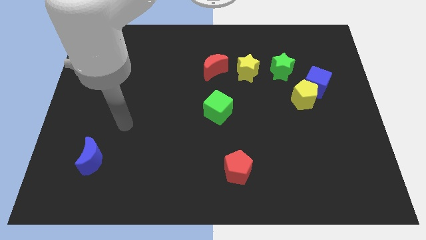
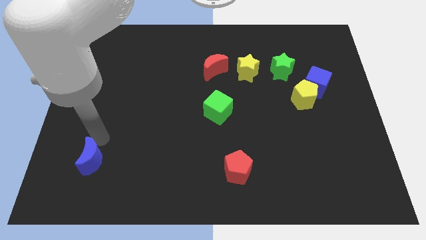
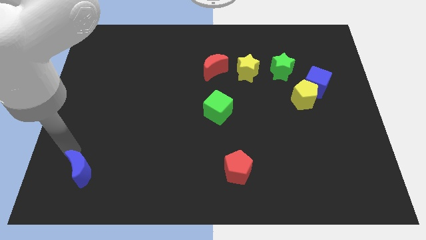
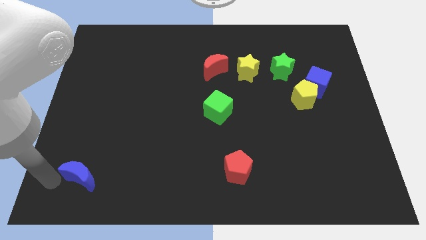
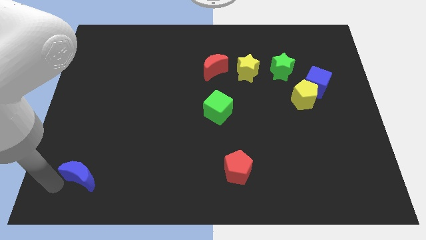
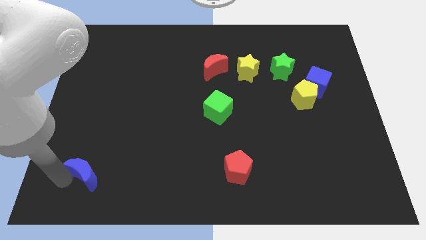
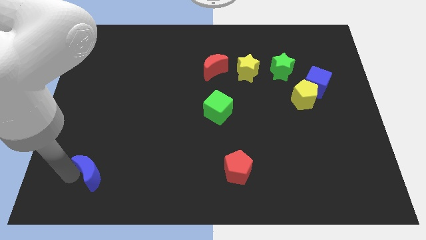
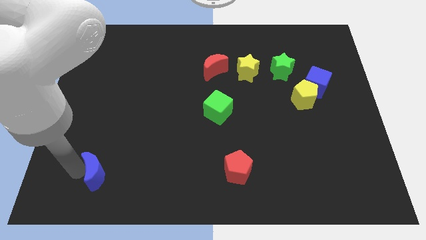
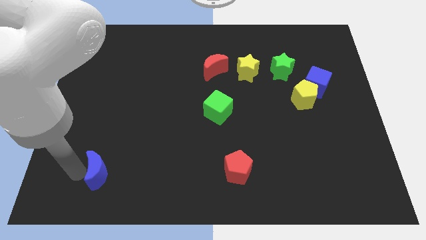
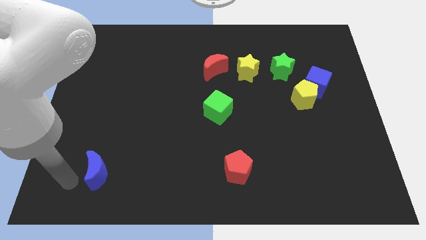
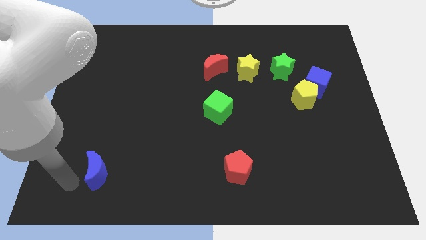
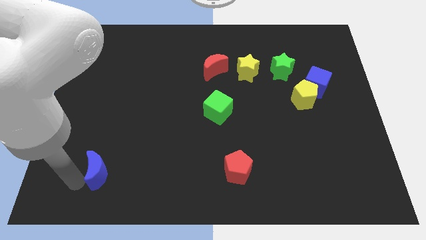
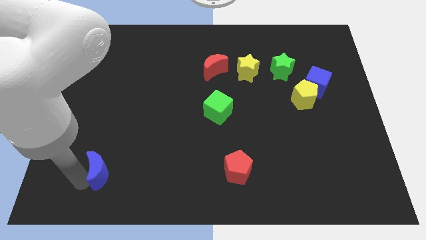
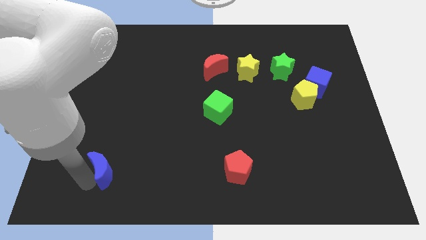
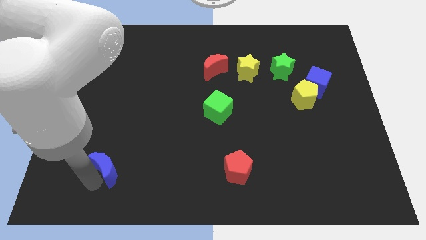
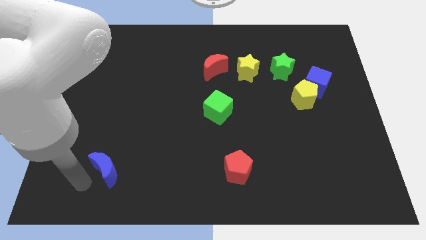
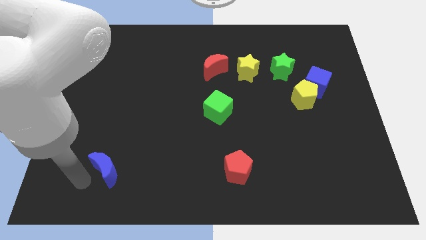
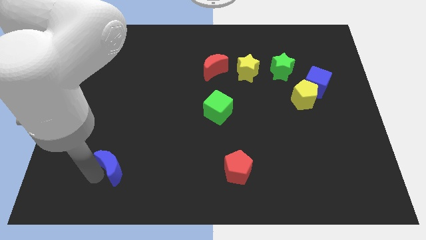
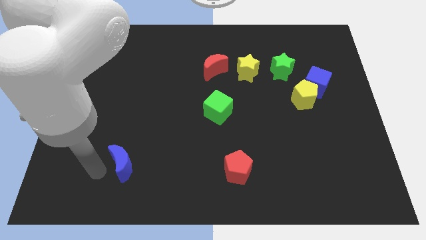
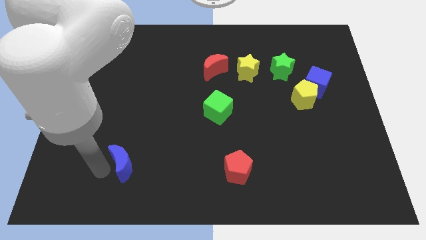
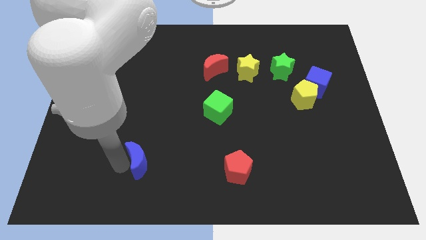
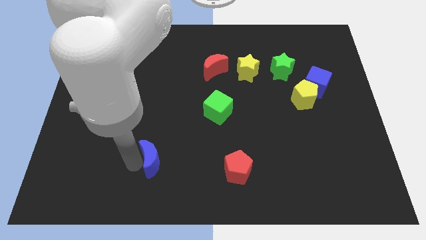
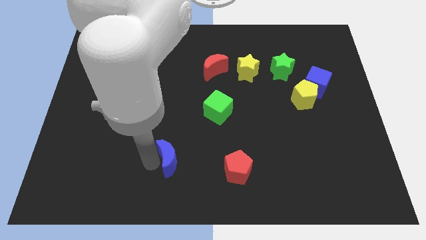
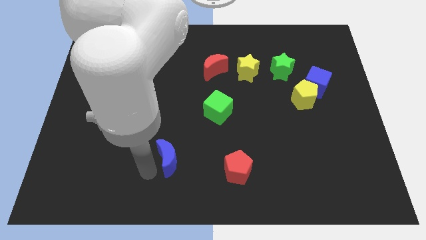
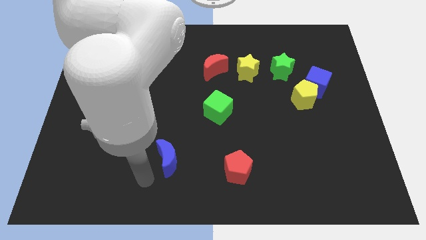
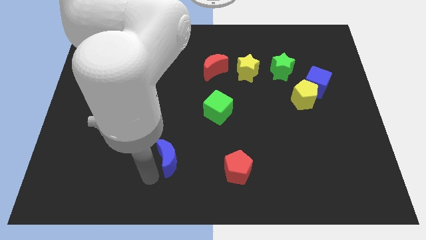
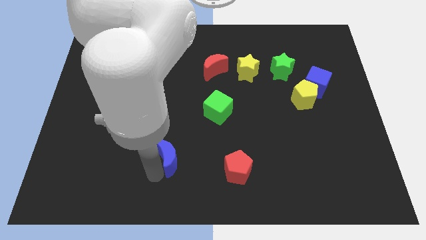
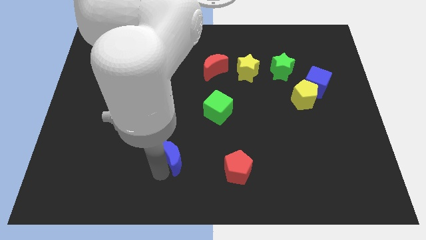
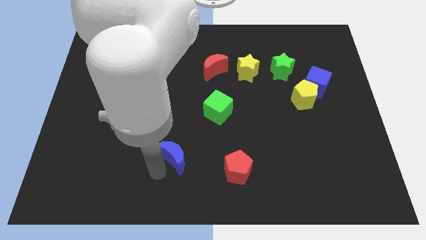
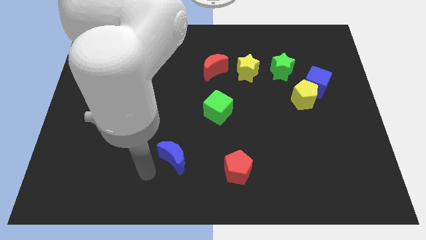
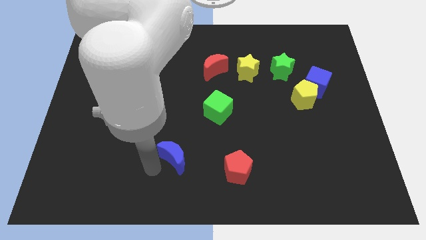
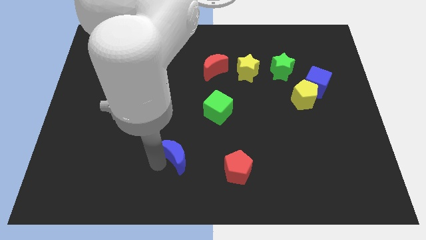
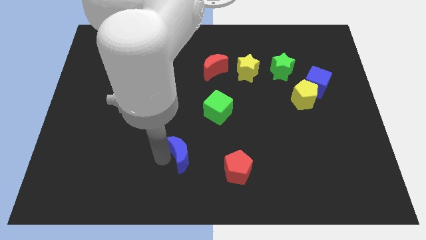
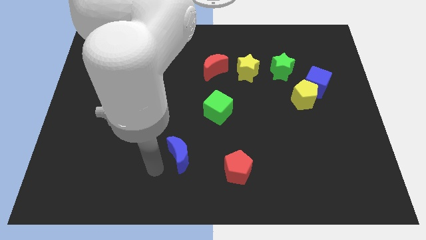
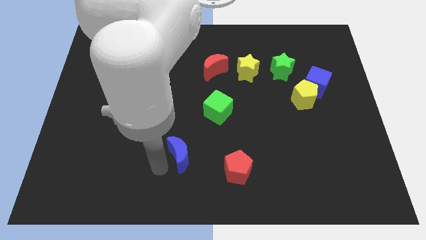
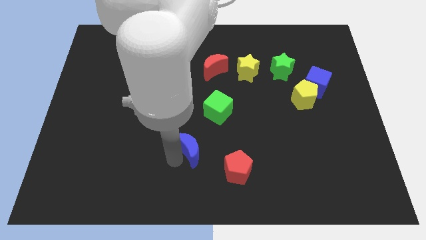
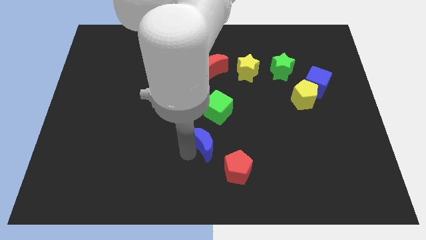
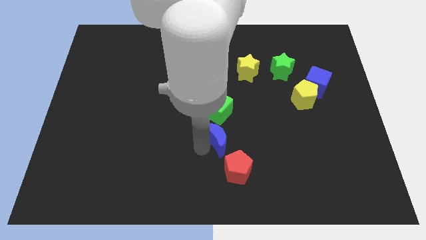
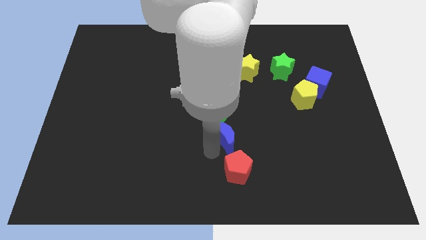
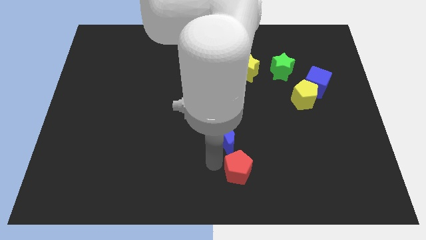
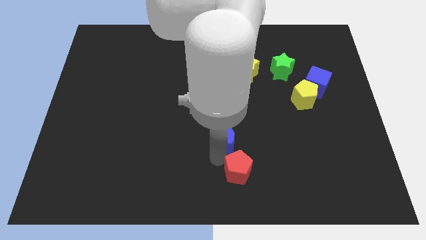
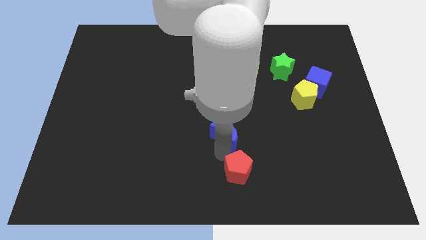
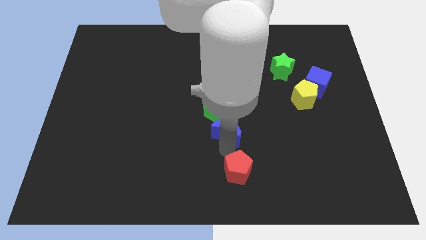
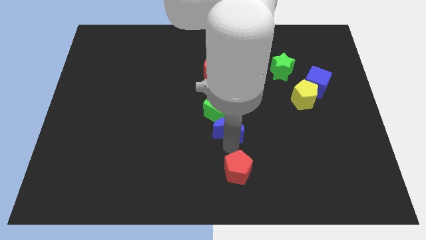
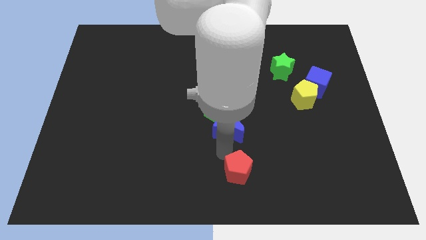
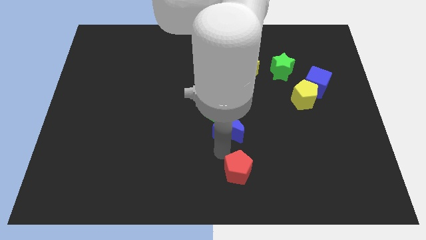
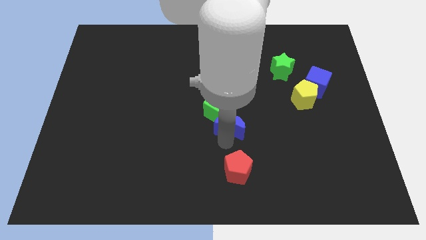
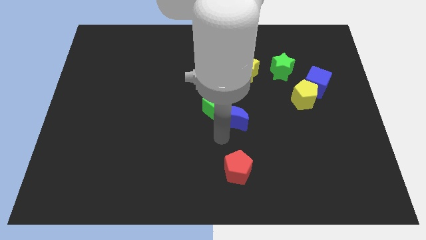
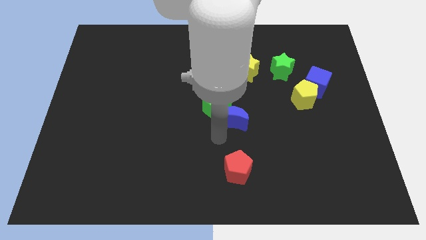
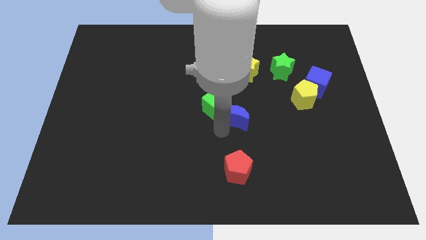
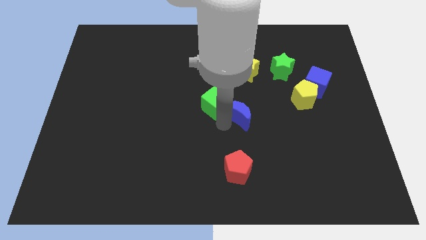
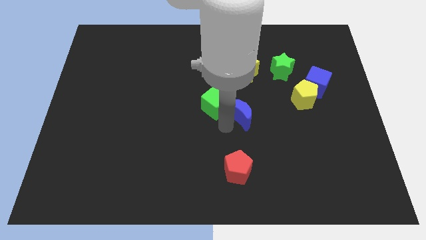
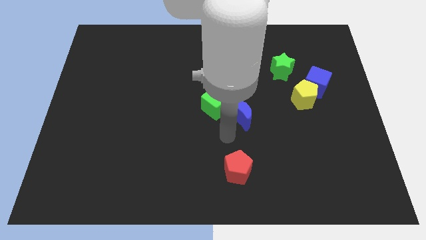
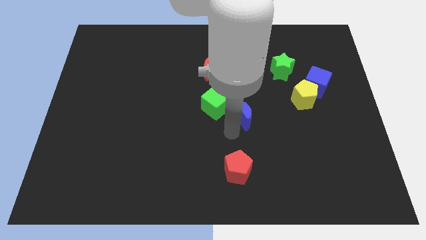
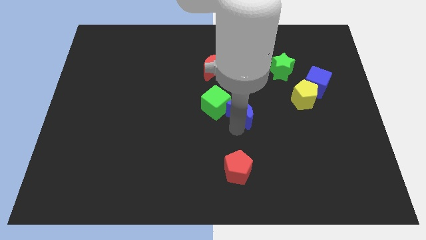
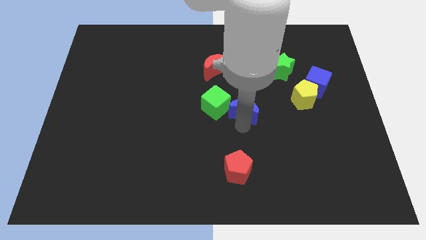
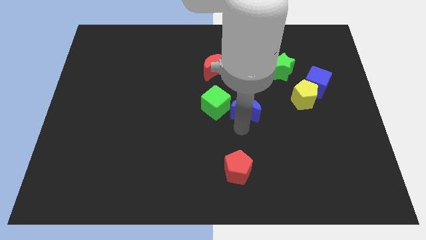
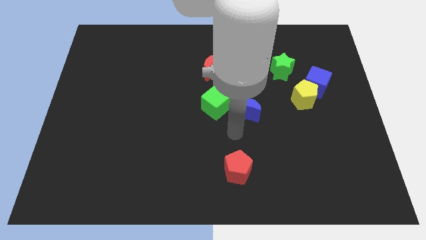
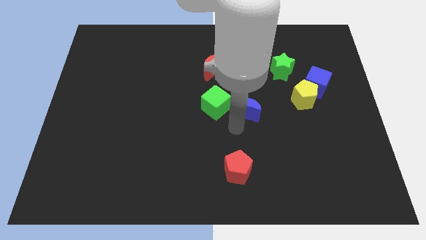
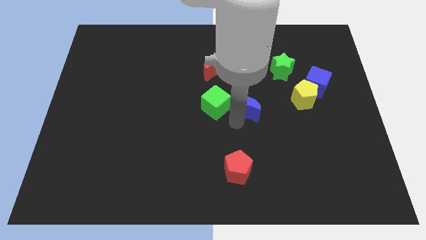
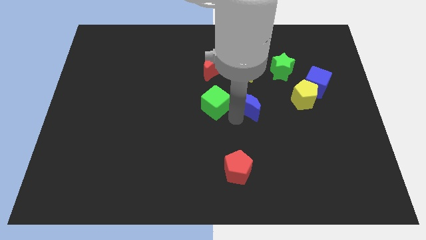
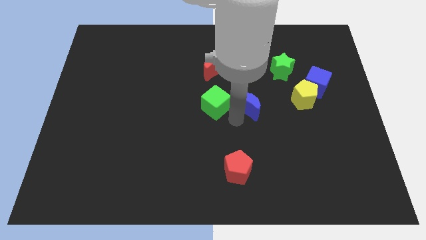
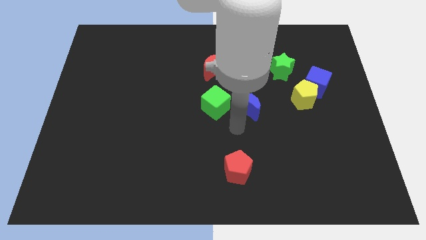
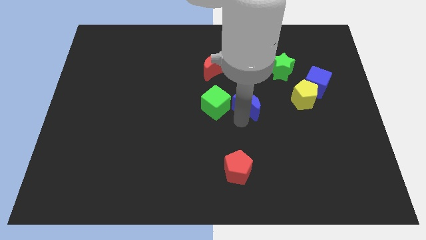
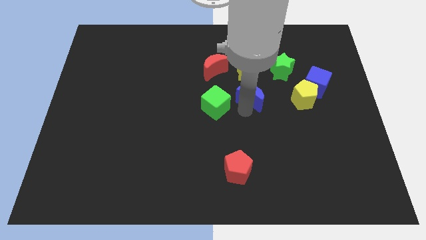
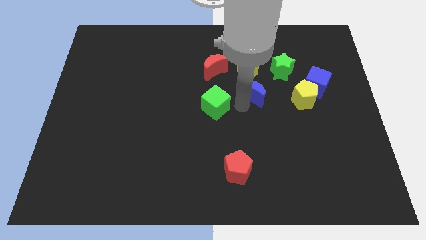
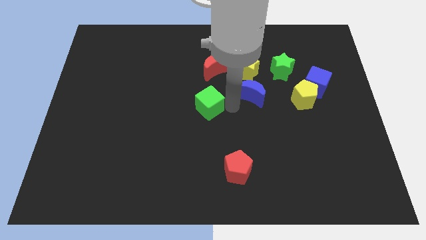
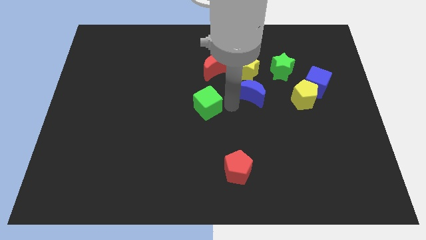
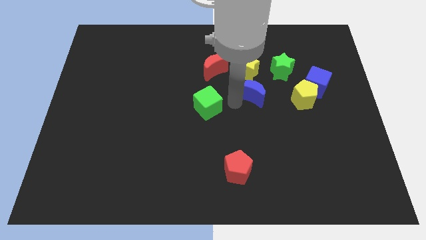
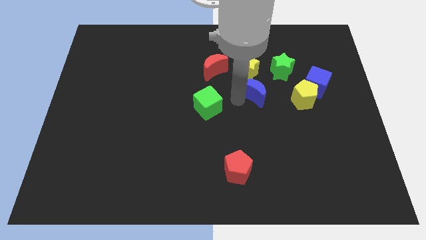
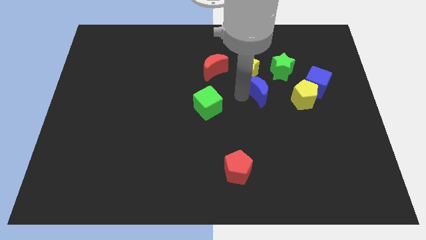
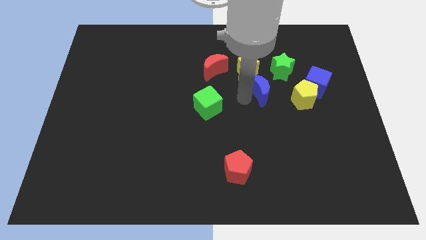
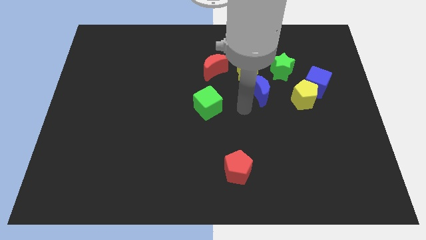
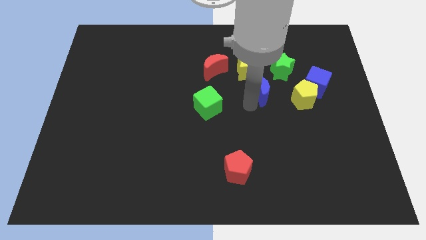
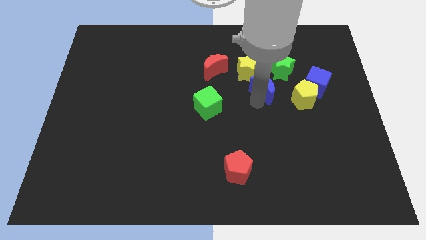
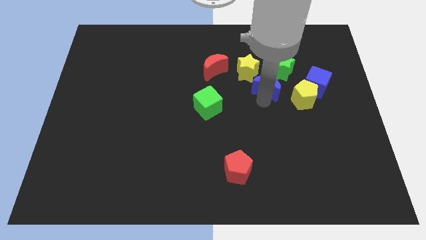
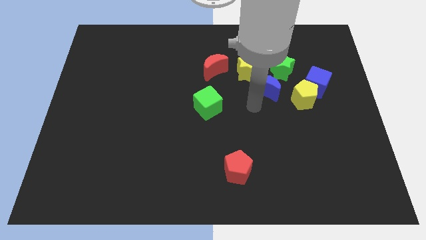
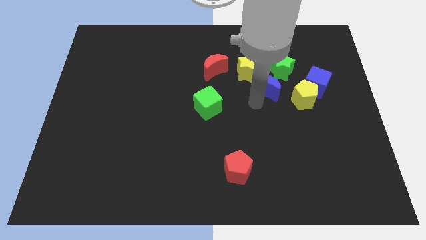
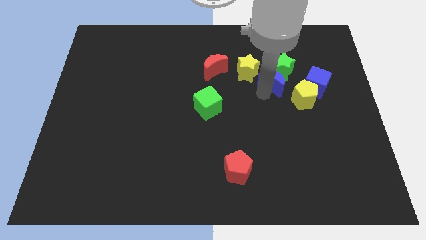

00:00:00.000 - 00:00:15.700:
move the blue moon close to the green star
